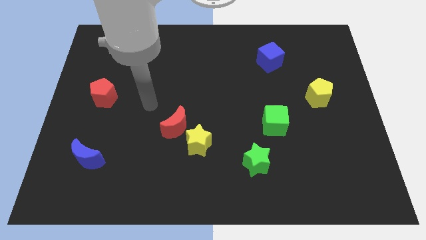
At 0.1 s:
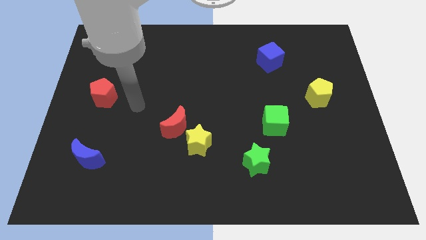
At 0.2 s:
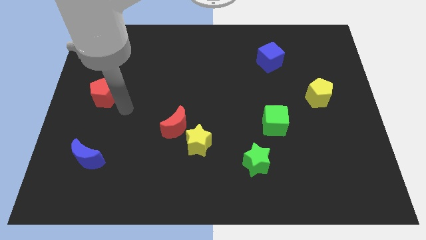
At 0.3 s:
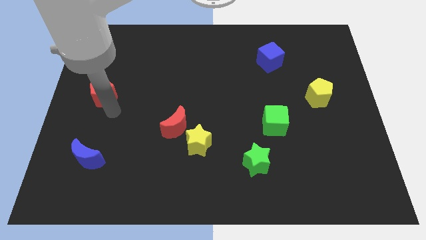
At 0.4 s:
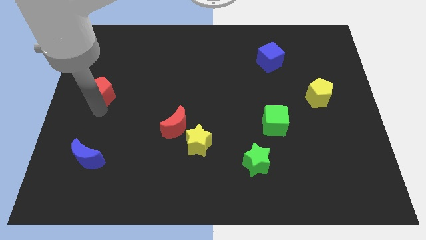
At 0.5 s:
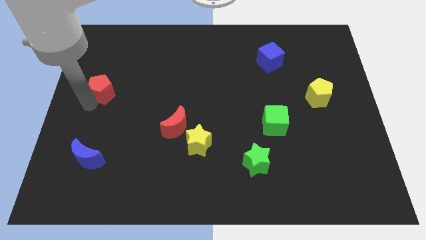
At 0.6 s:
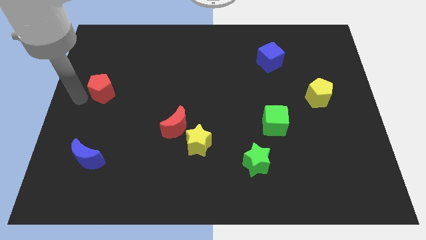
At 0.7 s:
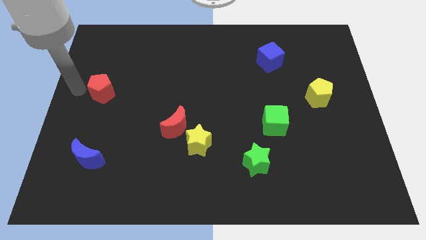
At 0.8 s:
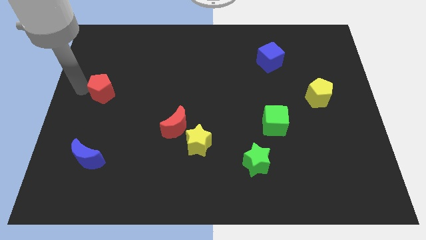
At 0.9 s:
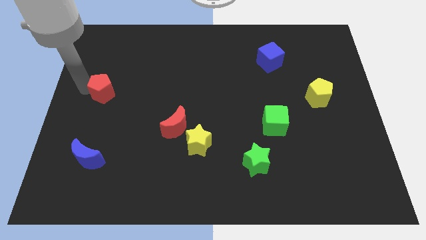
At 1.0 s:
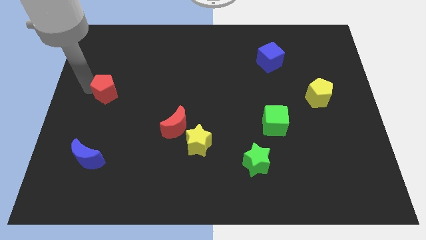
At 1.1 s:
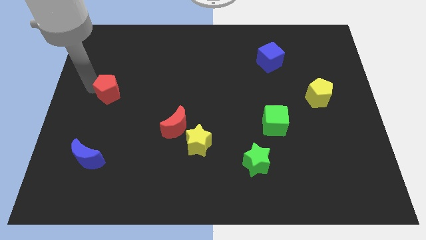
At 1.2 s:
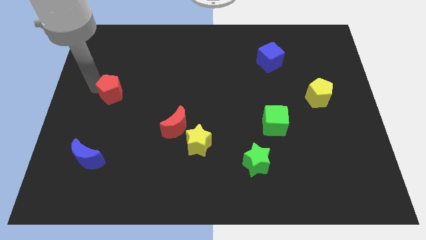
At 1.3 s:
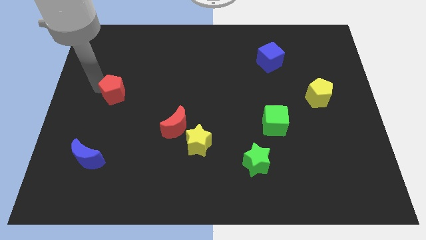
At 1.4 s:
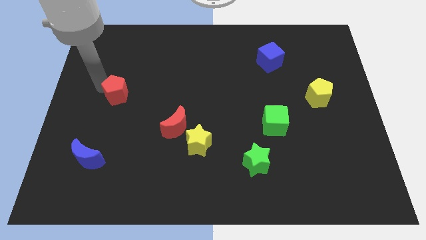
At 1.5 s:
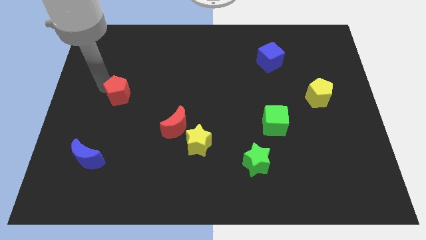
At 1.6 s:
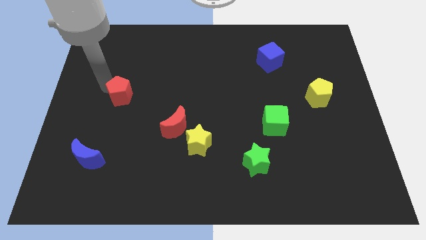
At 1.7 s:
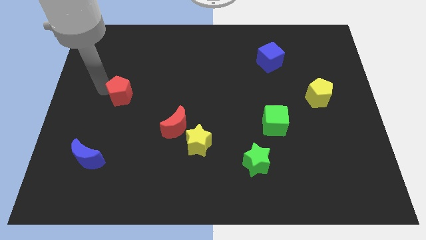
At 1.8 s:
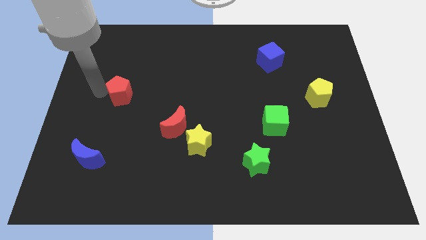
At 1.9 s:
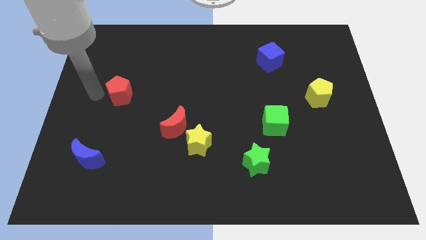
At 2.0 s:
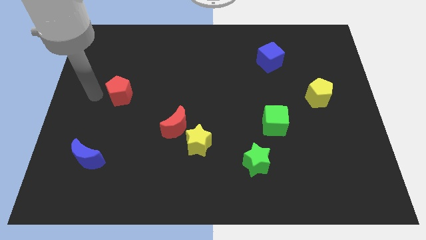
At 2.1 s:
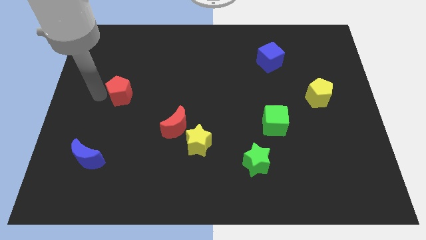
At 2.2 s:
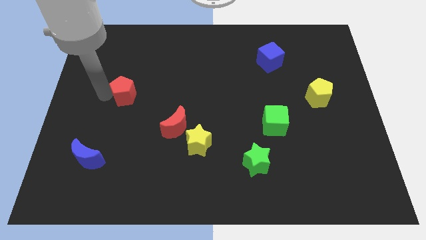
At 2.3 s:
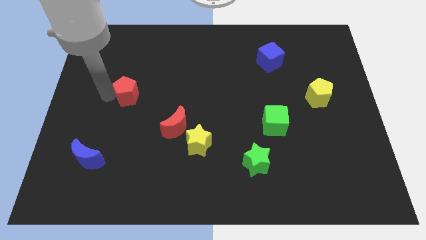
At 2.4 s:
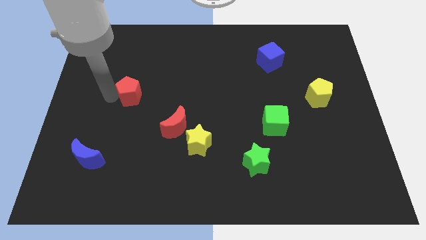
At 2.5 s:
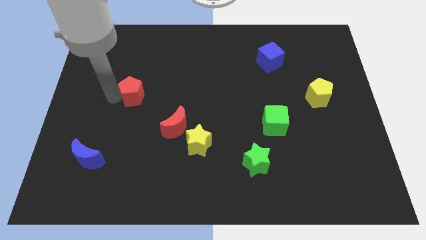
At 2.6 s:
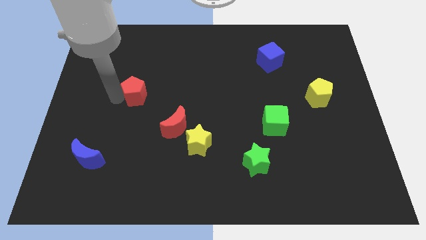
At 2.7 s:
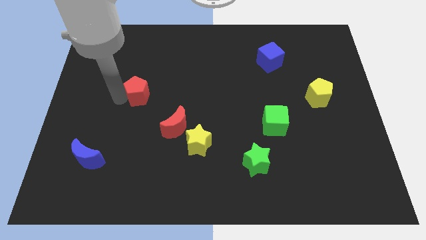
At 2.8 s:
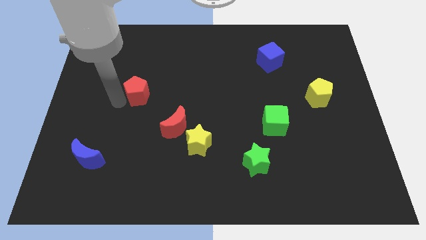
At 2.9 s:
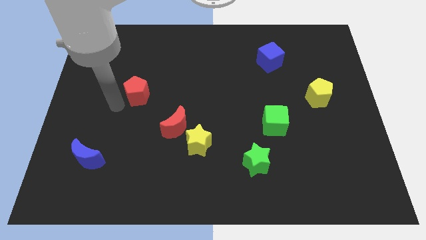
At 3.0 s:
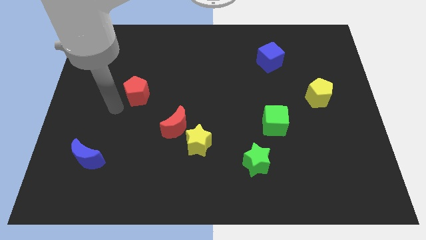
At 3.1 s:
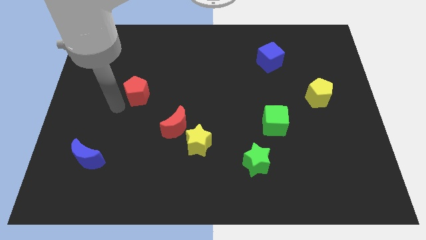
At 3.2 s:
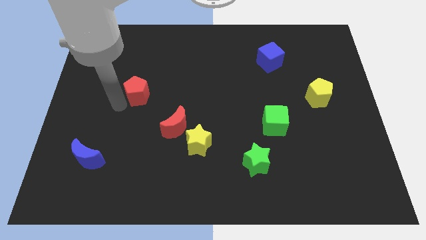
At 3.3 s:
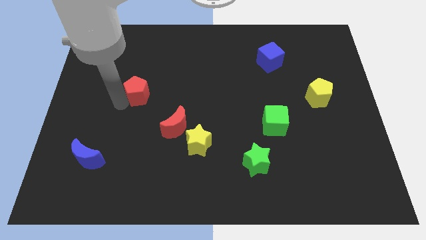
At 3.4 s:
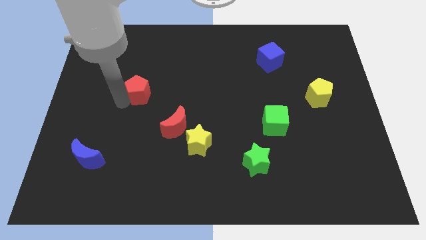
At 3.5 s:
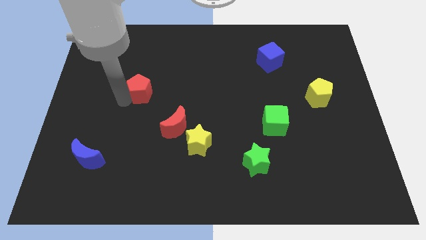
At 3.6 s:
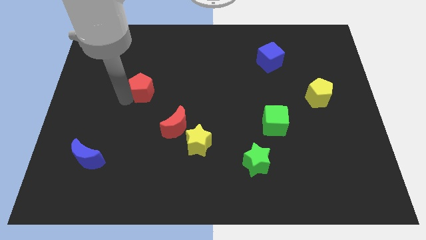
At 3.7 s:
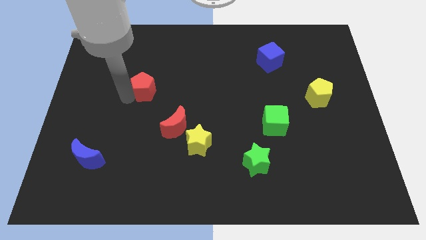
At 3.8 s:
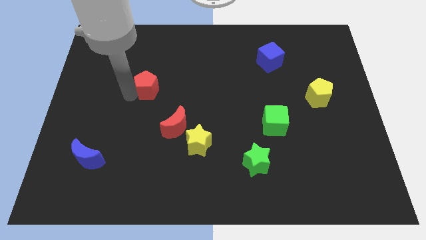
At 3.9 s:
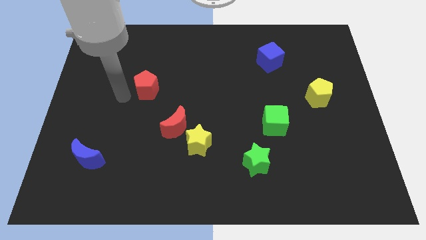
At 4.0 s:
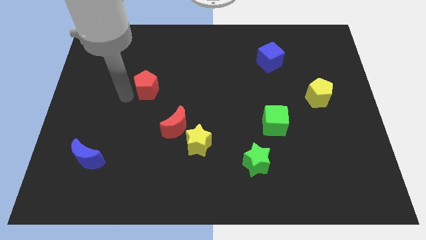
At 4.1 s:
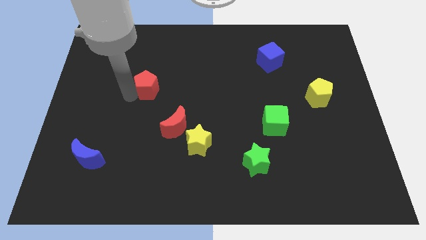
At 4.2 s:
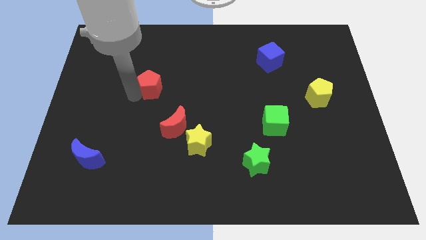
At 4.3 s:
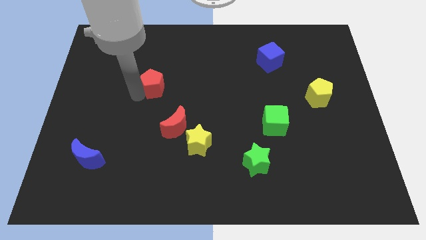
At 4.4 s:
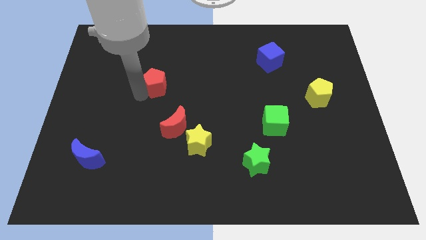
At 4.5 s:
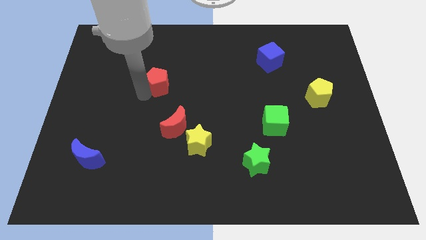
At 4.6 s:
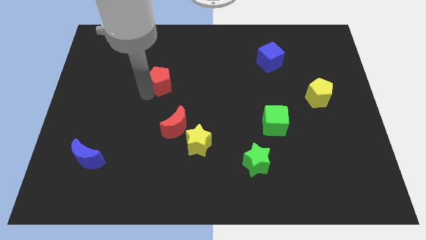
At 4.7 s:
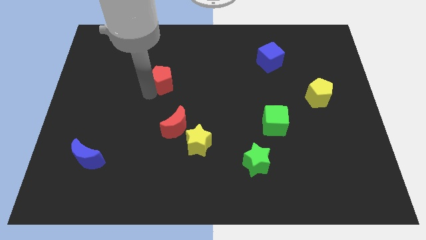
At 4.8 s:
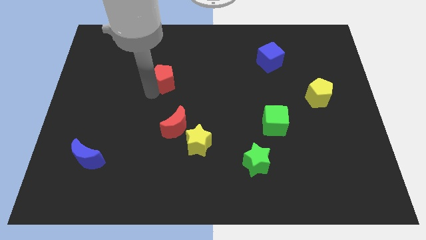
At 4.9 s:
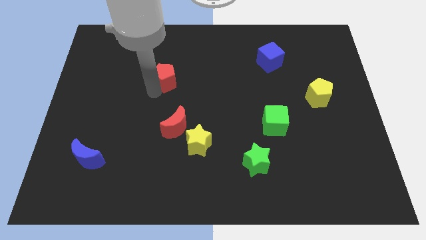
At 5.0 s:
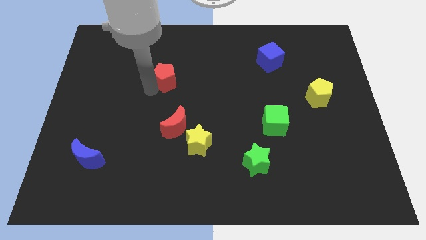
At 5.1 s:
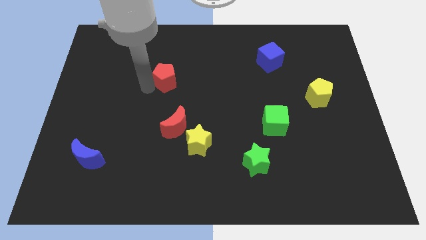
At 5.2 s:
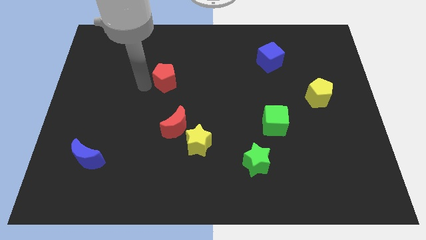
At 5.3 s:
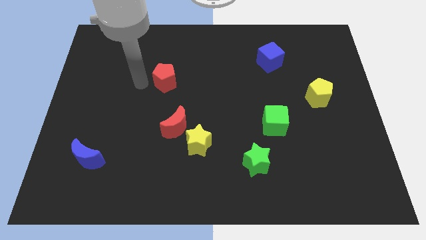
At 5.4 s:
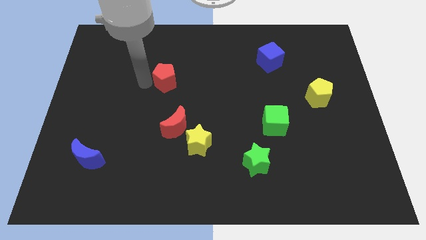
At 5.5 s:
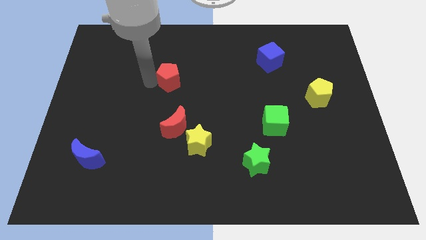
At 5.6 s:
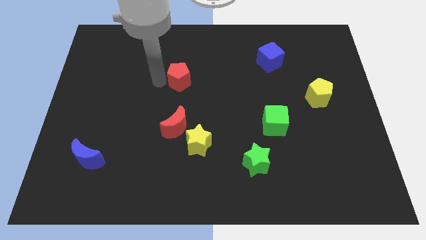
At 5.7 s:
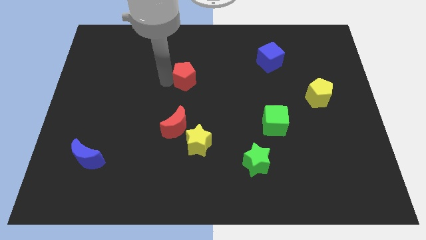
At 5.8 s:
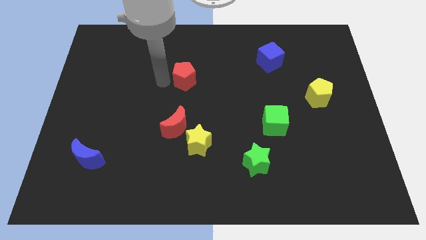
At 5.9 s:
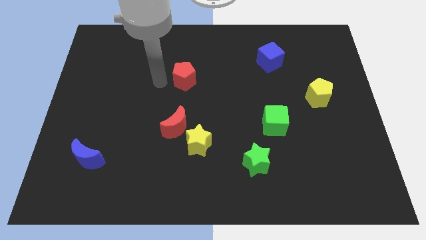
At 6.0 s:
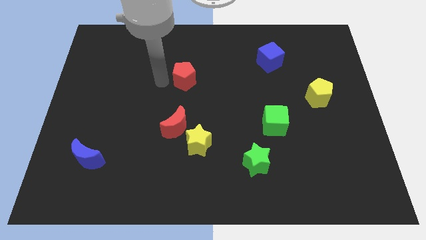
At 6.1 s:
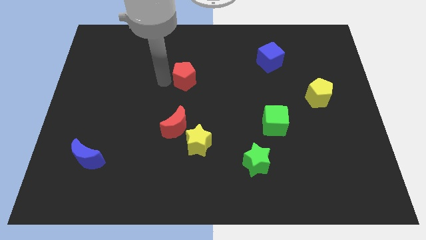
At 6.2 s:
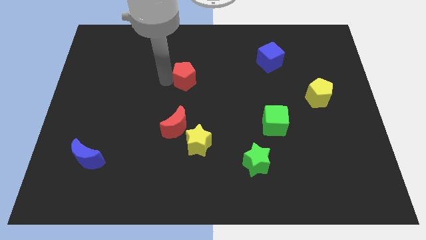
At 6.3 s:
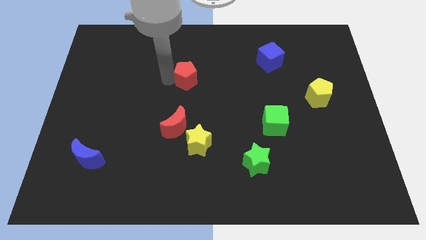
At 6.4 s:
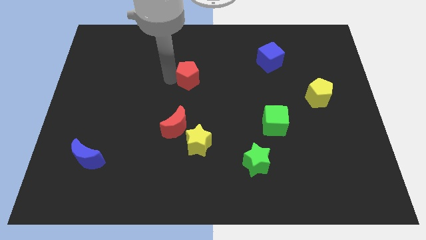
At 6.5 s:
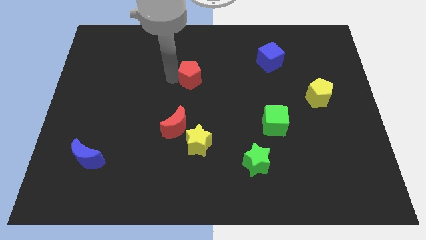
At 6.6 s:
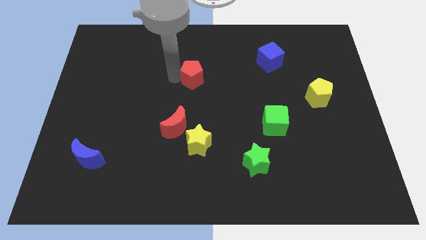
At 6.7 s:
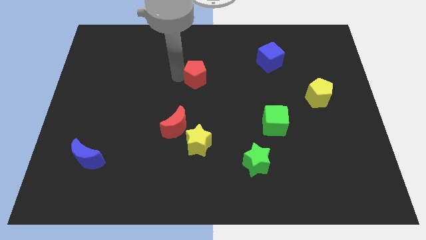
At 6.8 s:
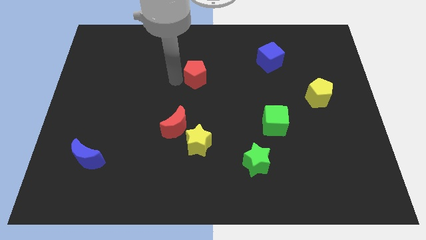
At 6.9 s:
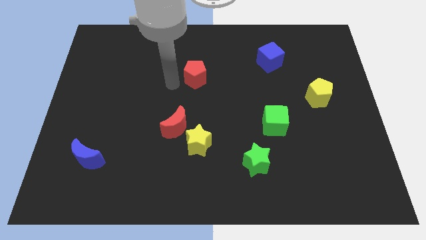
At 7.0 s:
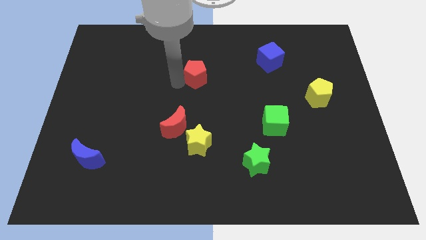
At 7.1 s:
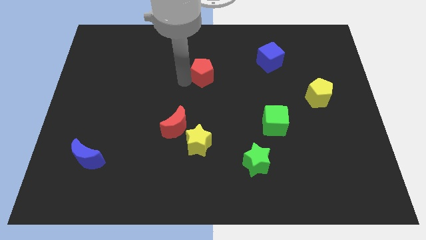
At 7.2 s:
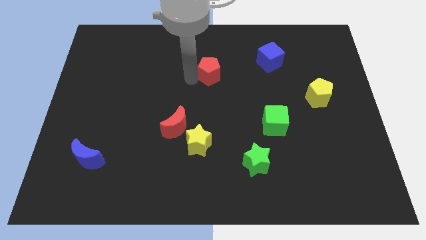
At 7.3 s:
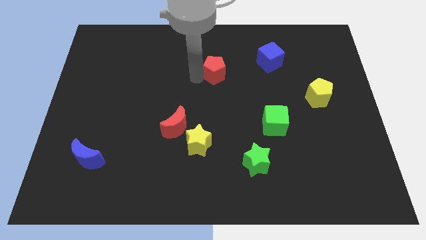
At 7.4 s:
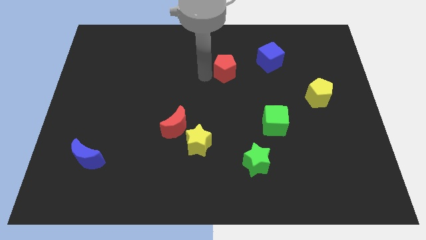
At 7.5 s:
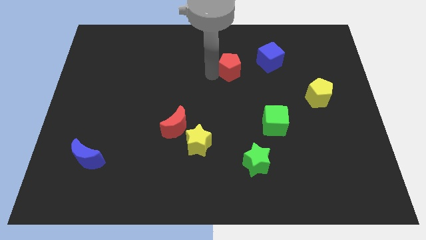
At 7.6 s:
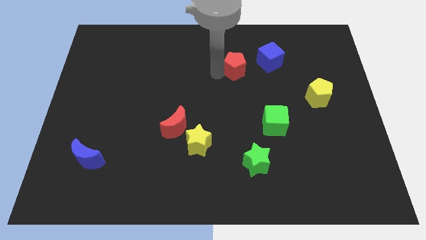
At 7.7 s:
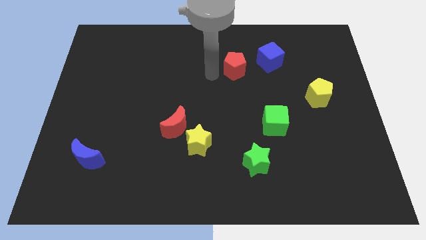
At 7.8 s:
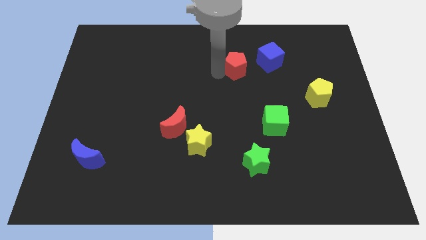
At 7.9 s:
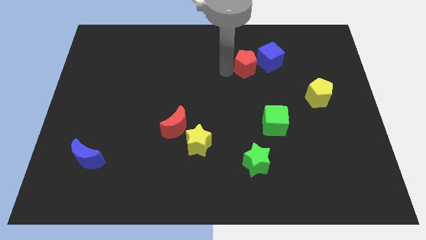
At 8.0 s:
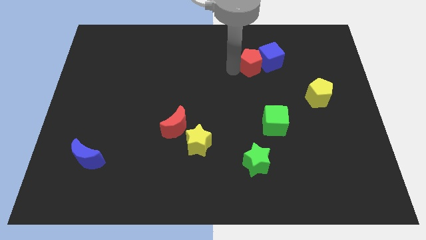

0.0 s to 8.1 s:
push the red pentagon towards the blue cube
